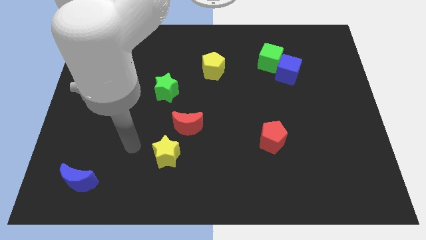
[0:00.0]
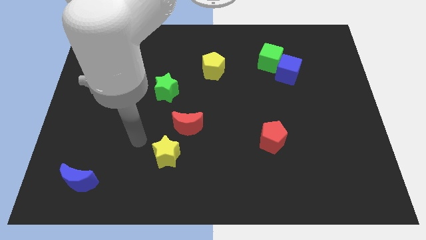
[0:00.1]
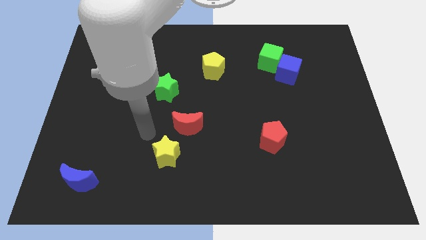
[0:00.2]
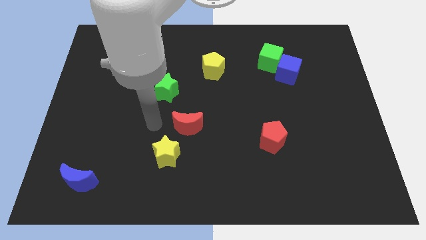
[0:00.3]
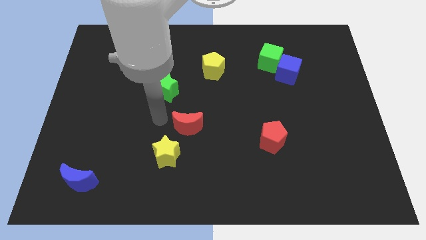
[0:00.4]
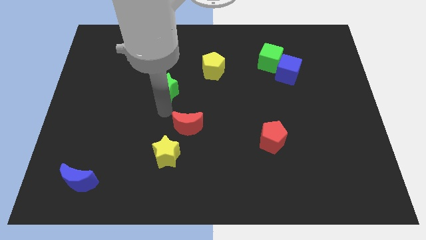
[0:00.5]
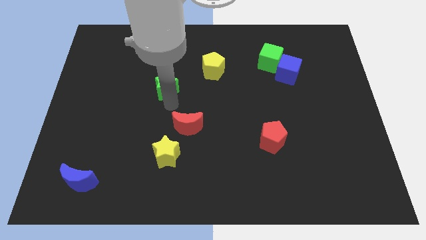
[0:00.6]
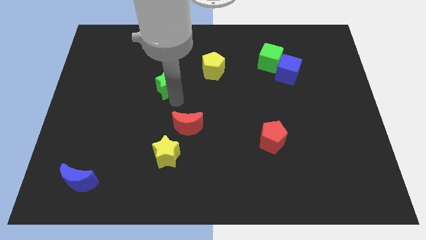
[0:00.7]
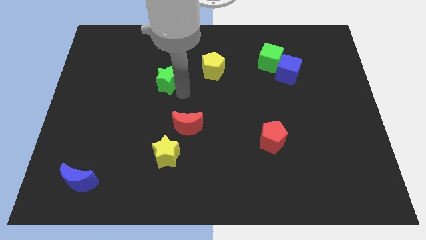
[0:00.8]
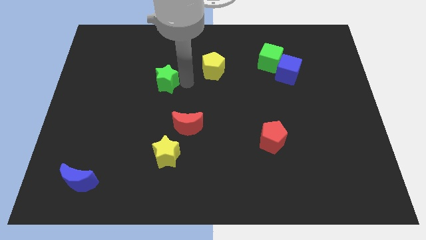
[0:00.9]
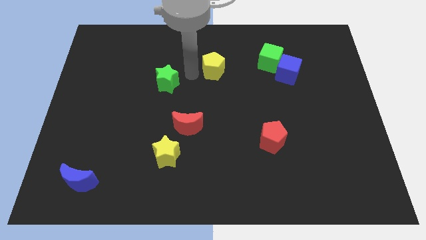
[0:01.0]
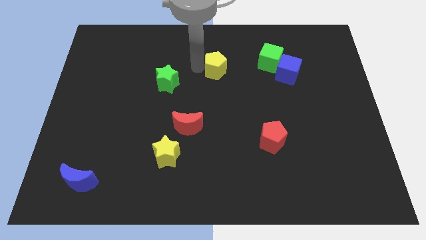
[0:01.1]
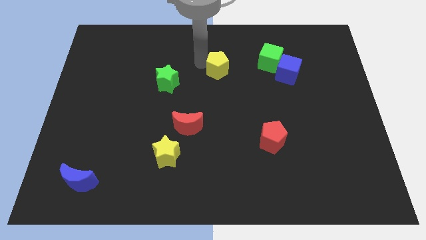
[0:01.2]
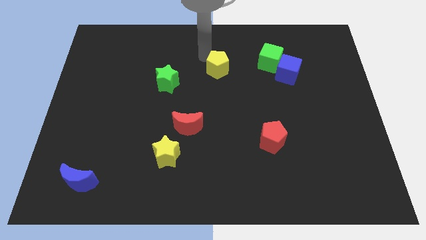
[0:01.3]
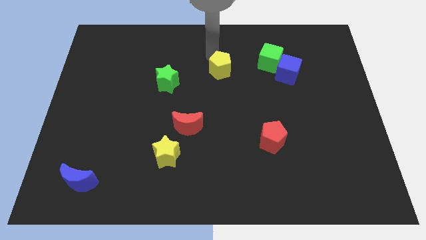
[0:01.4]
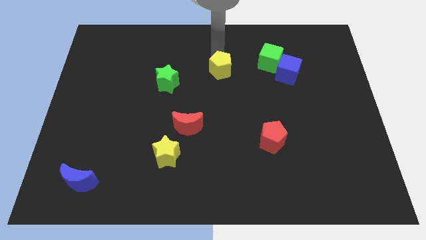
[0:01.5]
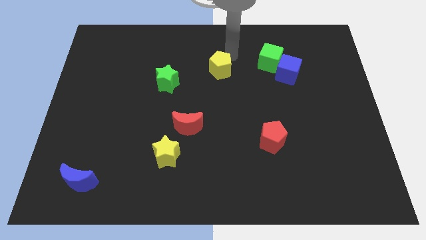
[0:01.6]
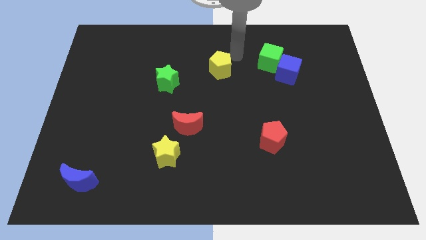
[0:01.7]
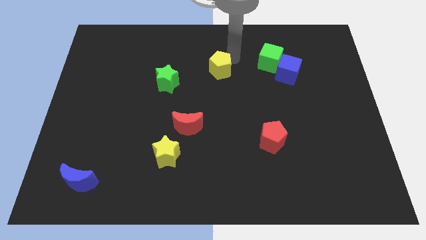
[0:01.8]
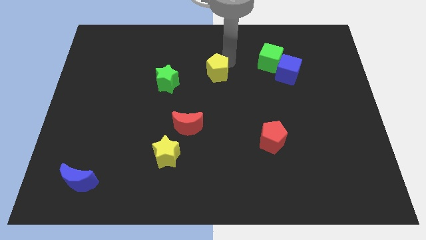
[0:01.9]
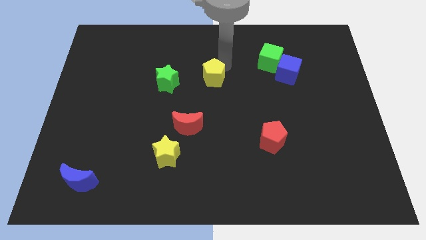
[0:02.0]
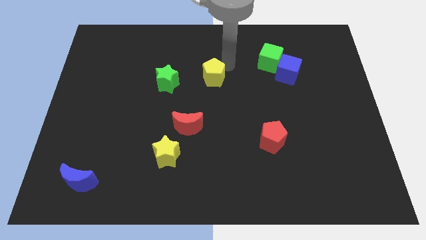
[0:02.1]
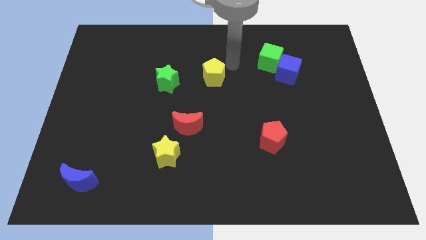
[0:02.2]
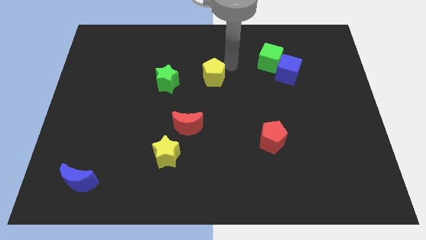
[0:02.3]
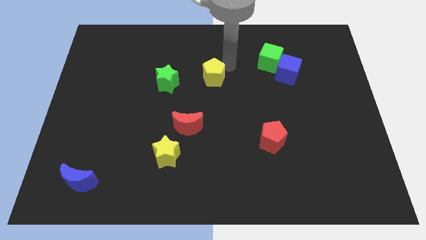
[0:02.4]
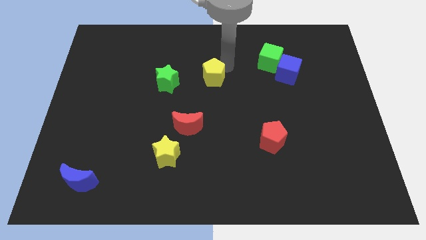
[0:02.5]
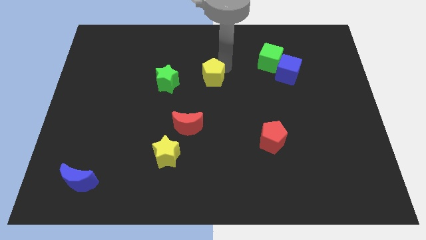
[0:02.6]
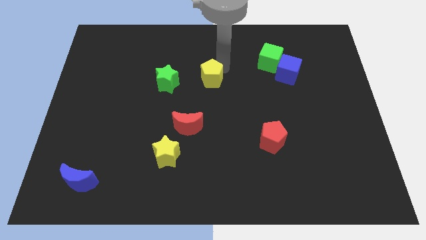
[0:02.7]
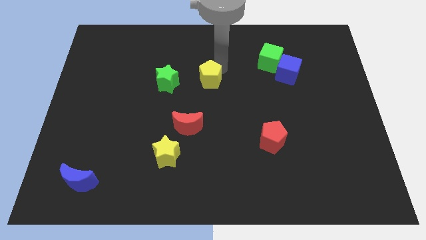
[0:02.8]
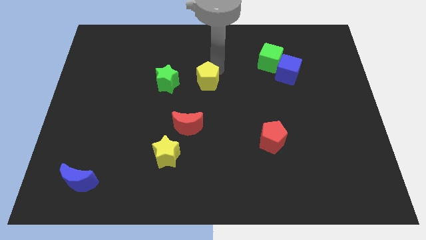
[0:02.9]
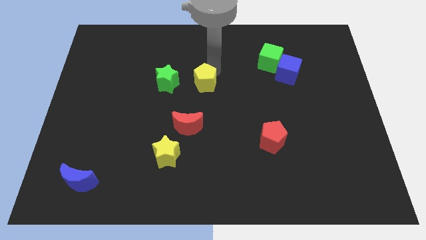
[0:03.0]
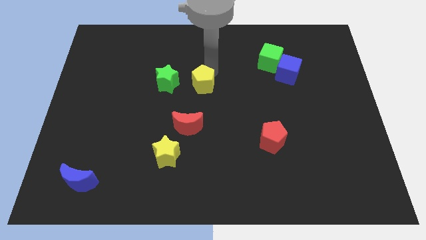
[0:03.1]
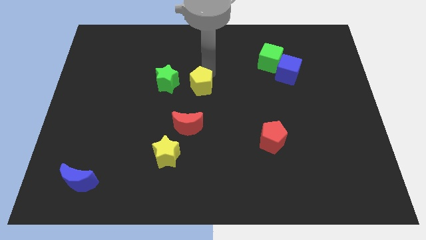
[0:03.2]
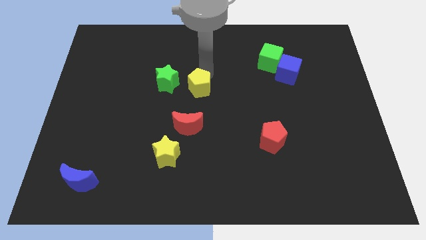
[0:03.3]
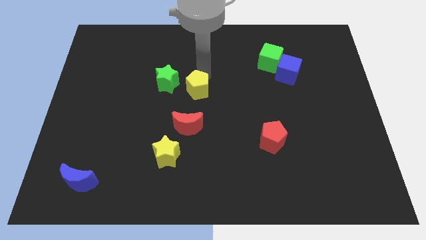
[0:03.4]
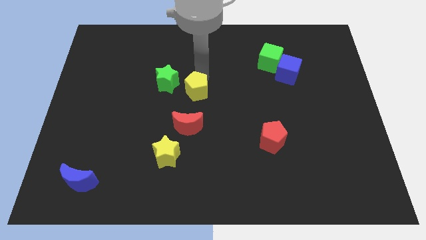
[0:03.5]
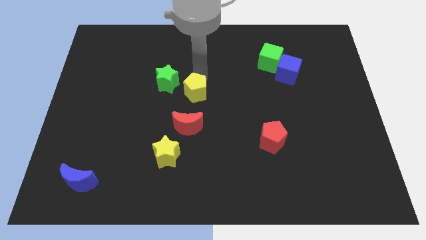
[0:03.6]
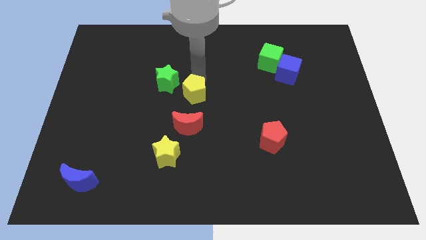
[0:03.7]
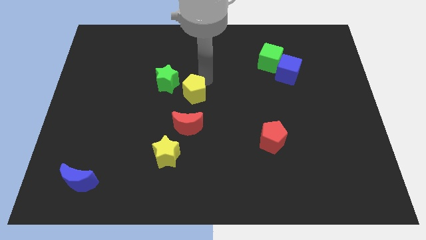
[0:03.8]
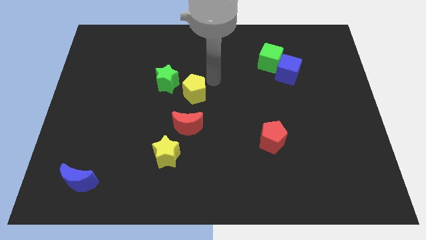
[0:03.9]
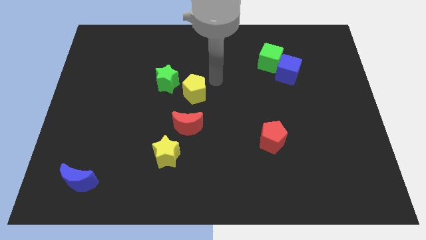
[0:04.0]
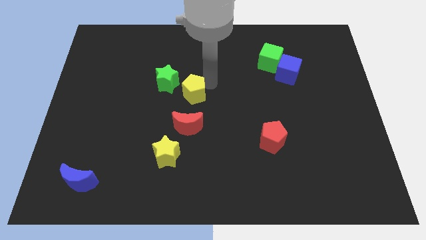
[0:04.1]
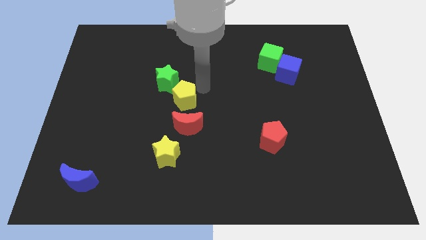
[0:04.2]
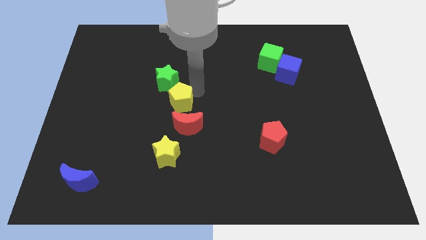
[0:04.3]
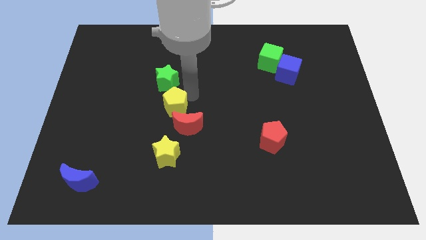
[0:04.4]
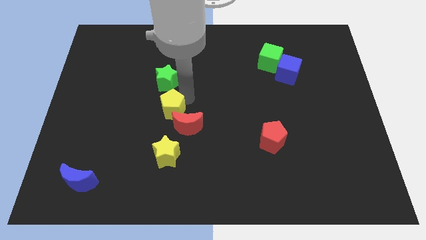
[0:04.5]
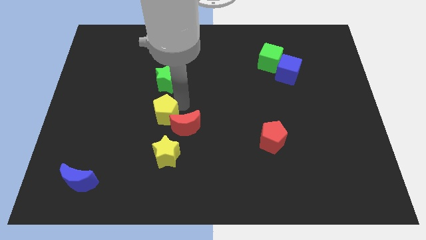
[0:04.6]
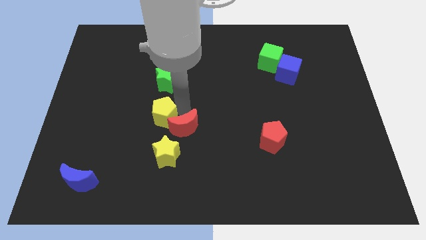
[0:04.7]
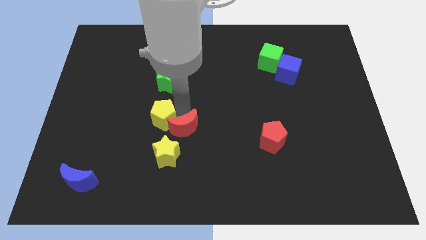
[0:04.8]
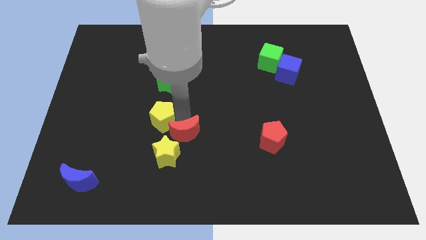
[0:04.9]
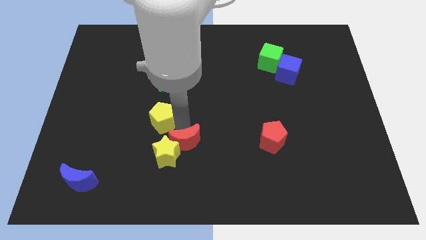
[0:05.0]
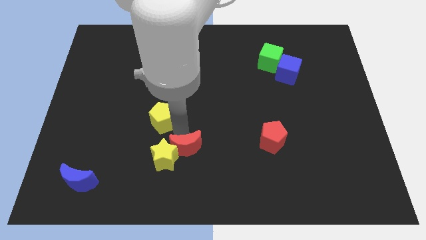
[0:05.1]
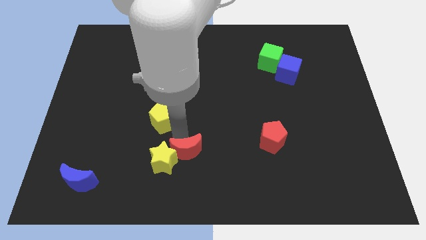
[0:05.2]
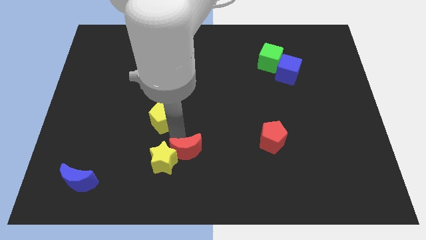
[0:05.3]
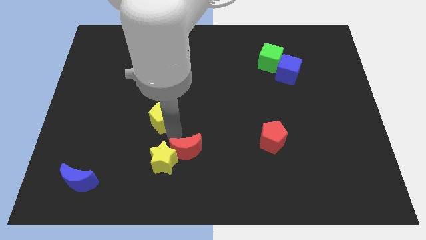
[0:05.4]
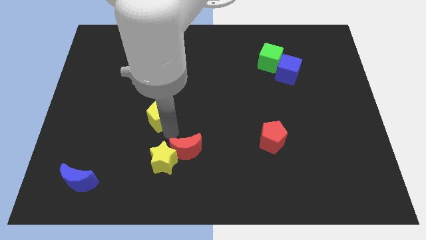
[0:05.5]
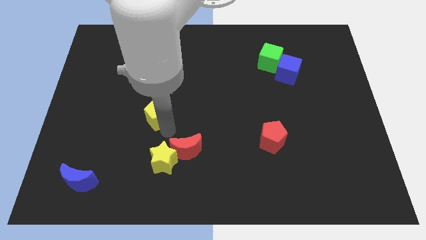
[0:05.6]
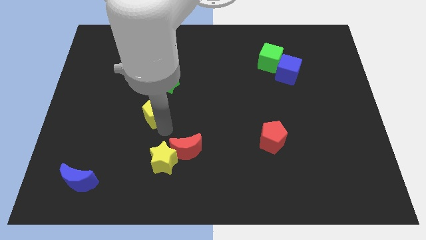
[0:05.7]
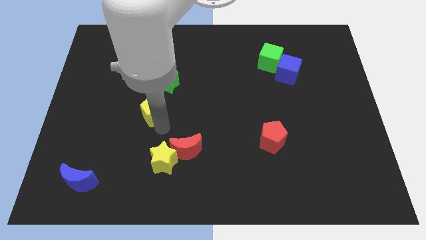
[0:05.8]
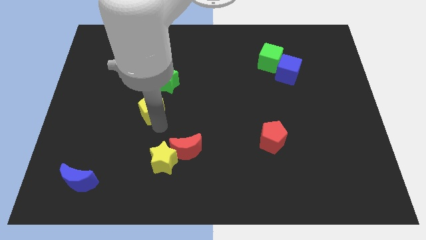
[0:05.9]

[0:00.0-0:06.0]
put the yellow pentagon diagonally down and to the left of the green star

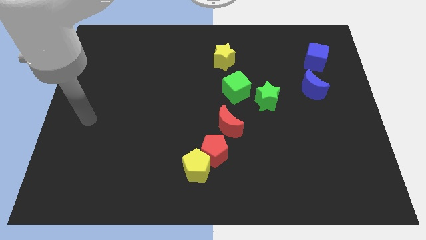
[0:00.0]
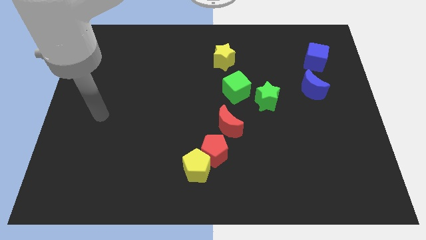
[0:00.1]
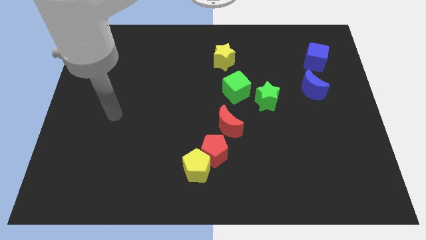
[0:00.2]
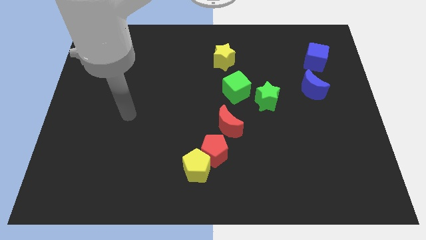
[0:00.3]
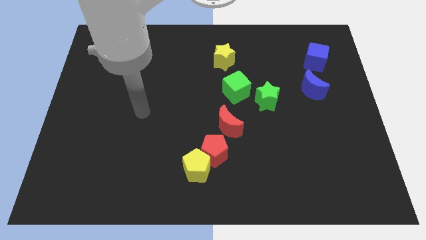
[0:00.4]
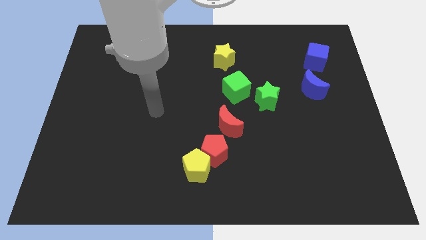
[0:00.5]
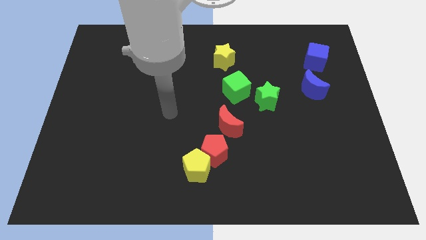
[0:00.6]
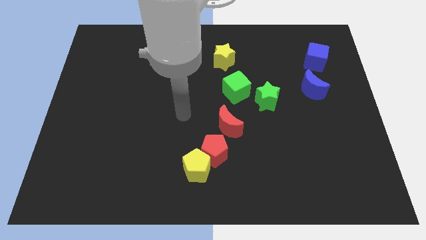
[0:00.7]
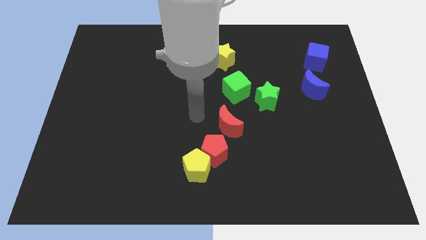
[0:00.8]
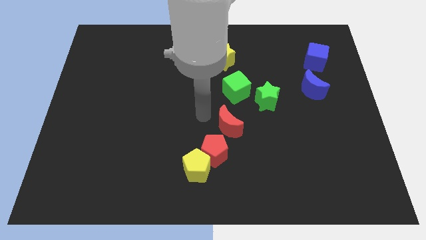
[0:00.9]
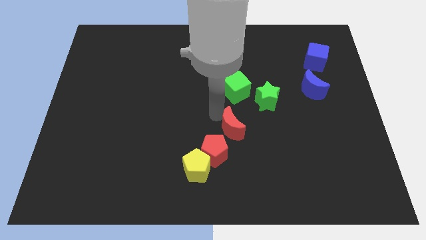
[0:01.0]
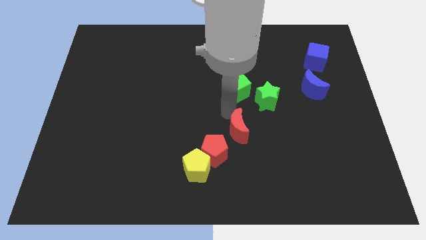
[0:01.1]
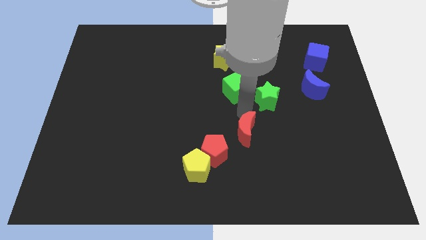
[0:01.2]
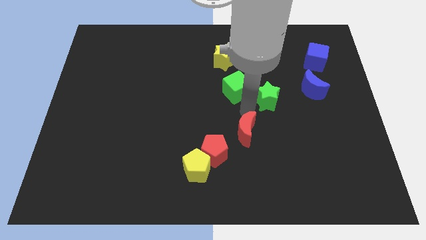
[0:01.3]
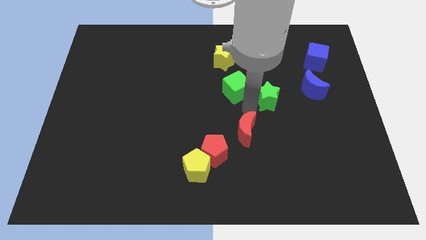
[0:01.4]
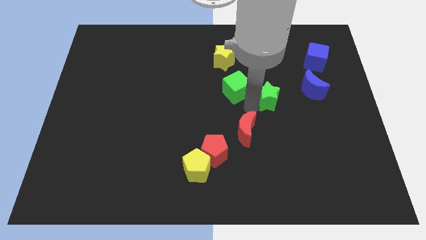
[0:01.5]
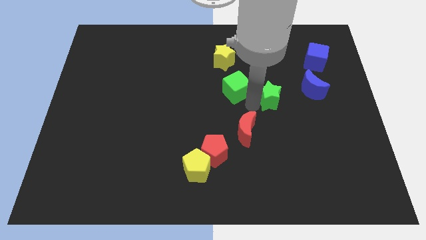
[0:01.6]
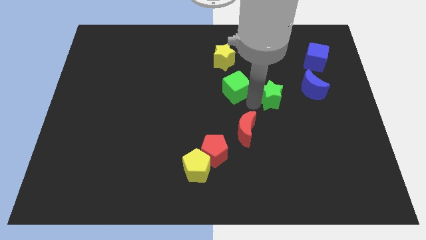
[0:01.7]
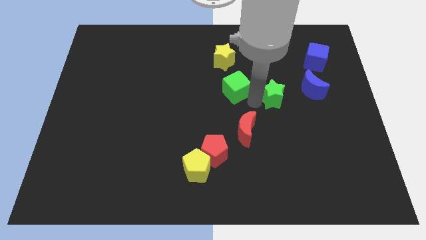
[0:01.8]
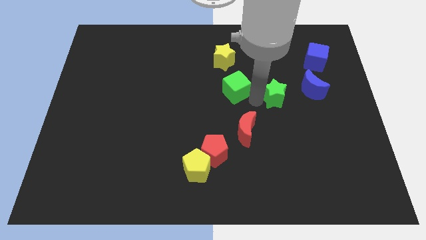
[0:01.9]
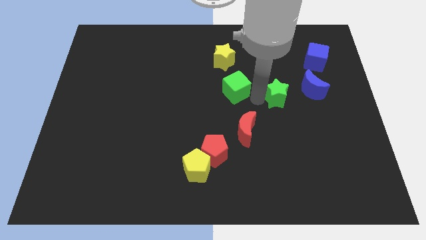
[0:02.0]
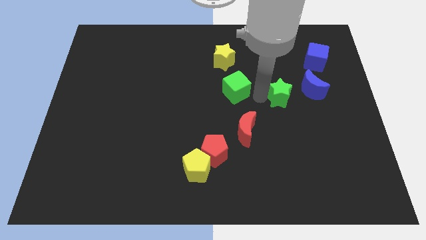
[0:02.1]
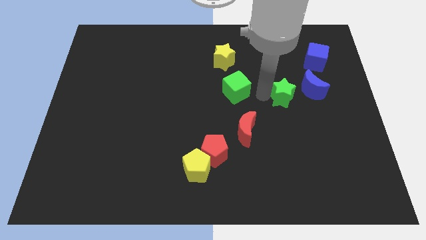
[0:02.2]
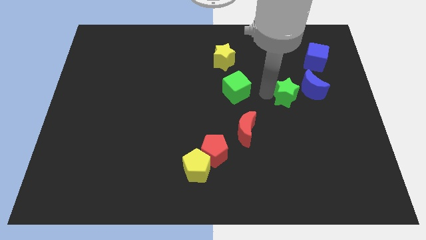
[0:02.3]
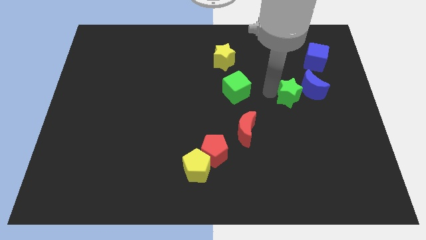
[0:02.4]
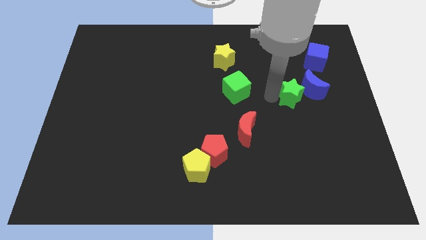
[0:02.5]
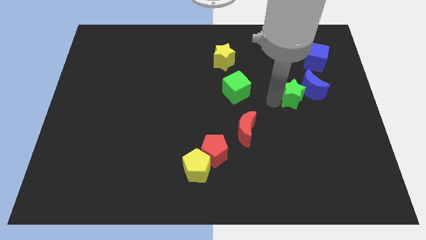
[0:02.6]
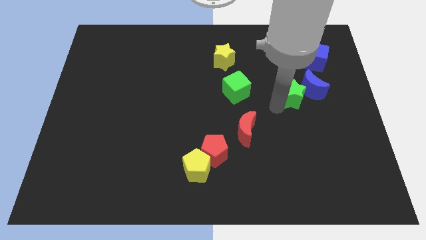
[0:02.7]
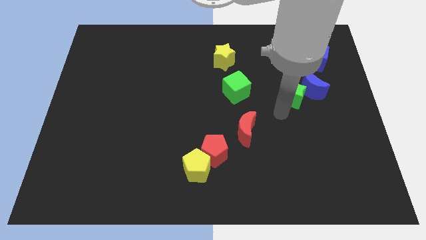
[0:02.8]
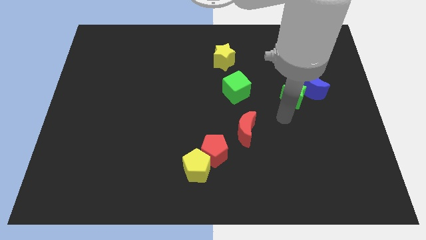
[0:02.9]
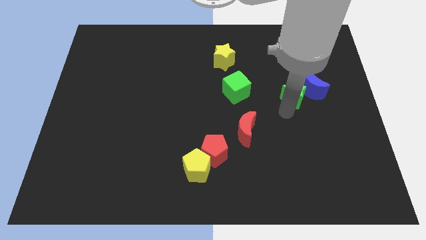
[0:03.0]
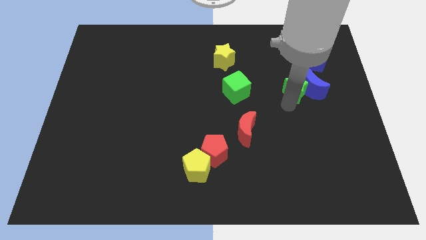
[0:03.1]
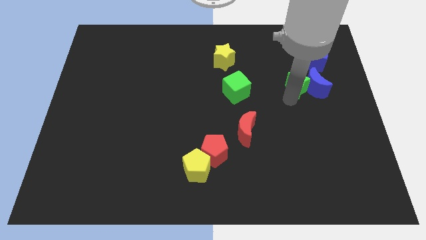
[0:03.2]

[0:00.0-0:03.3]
put the green star to the bottom left side of the blue cube
